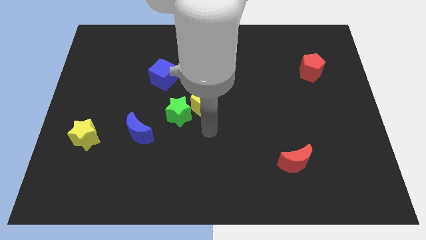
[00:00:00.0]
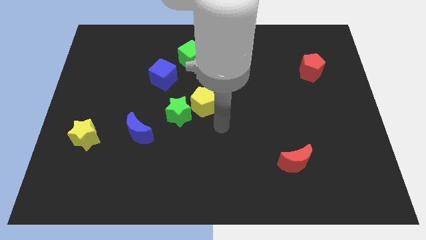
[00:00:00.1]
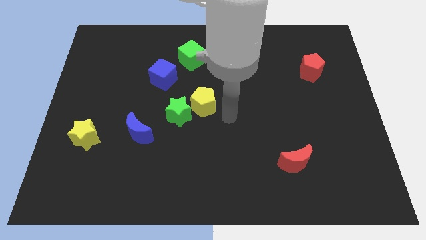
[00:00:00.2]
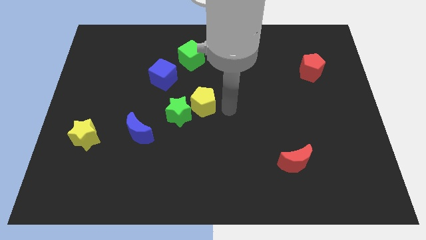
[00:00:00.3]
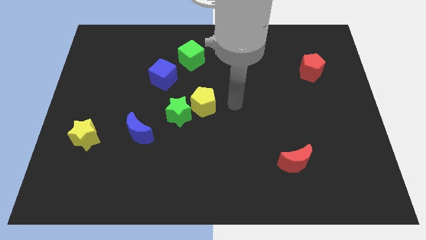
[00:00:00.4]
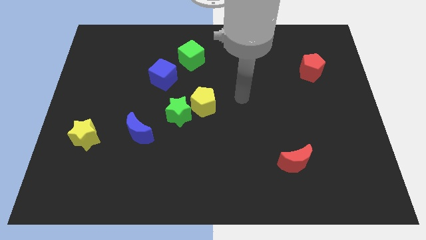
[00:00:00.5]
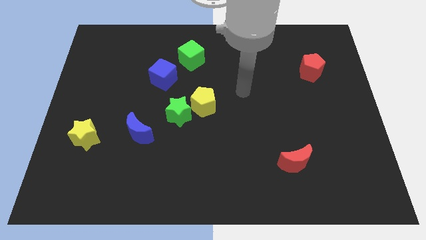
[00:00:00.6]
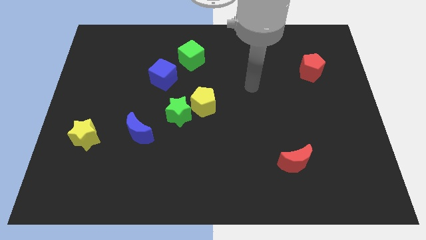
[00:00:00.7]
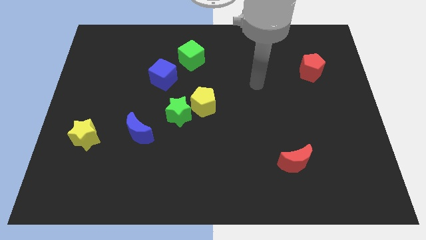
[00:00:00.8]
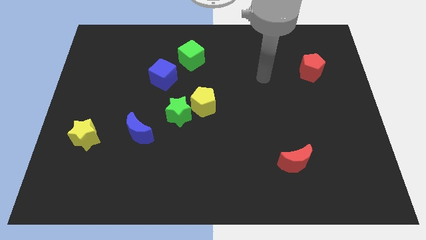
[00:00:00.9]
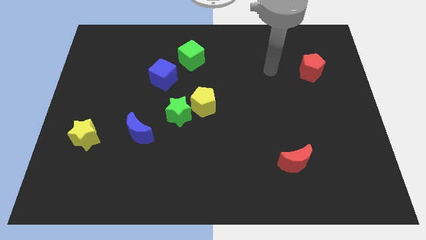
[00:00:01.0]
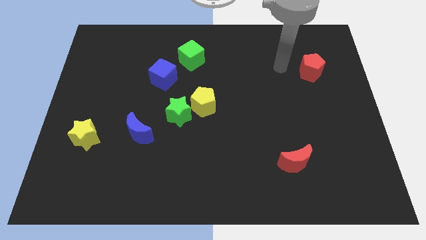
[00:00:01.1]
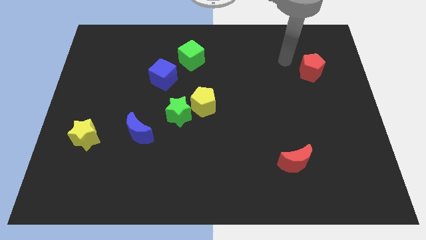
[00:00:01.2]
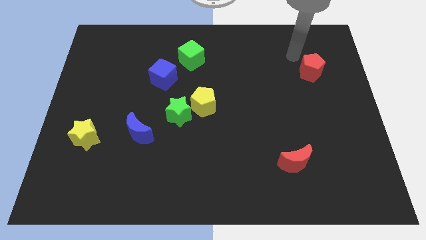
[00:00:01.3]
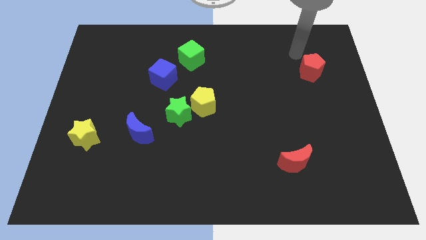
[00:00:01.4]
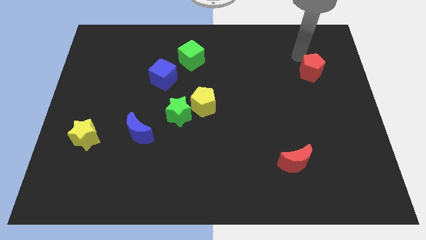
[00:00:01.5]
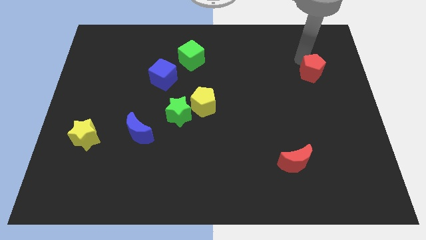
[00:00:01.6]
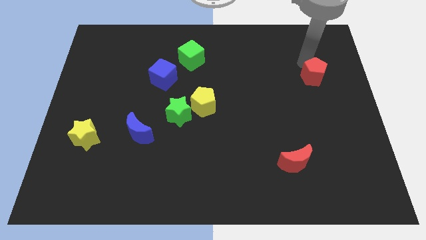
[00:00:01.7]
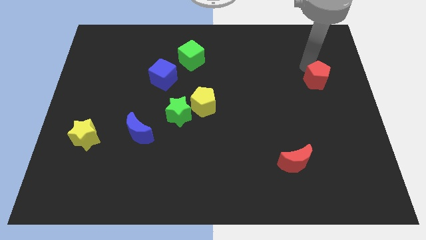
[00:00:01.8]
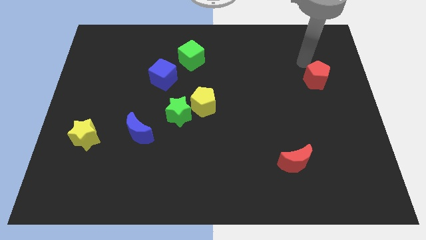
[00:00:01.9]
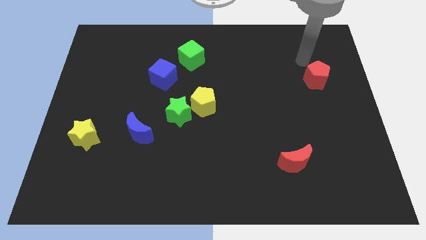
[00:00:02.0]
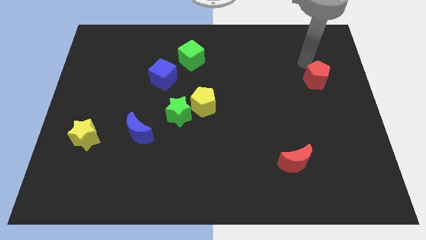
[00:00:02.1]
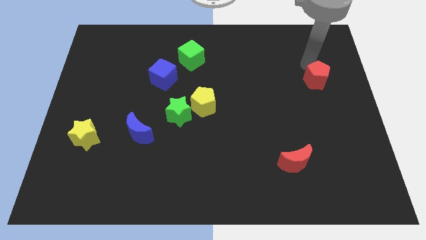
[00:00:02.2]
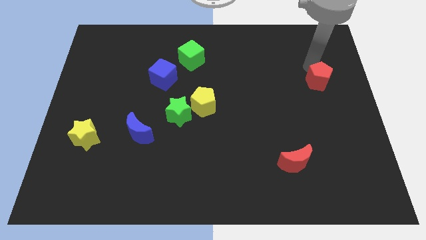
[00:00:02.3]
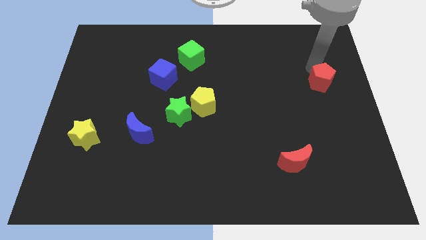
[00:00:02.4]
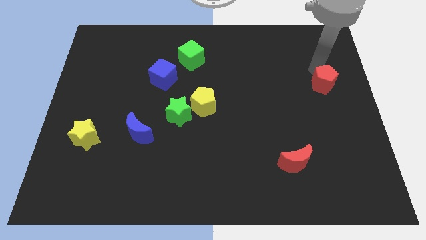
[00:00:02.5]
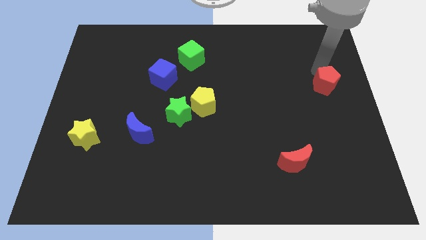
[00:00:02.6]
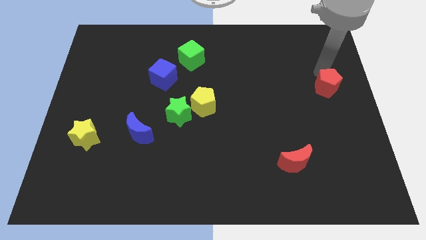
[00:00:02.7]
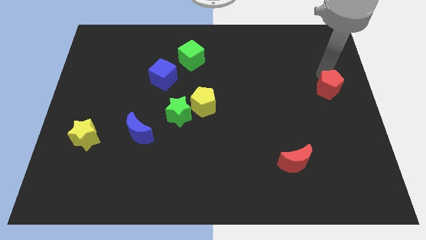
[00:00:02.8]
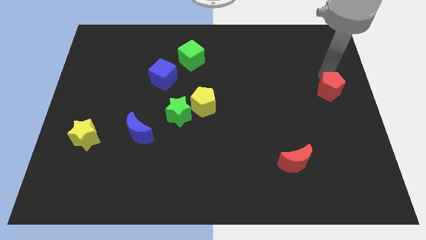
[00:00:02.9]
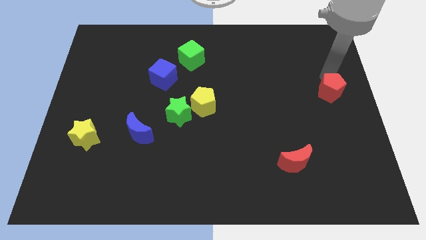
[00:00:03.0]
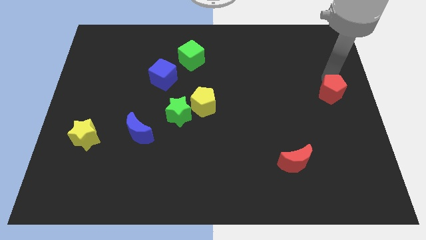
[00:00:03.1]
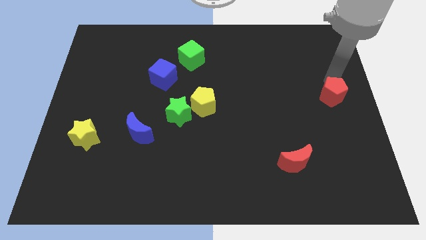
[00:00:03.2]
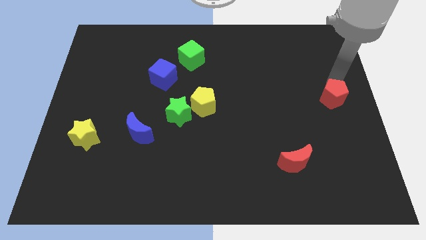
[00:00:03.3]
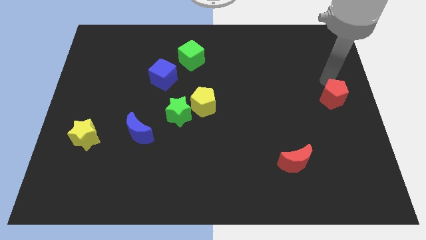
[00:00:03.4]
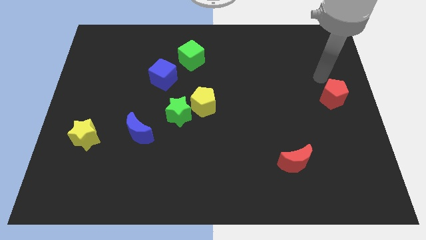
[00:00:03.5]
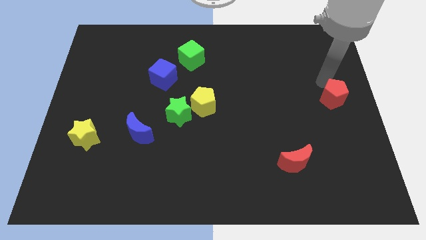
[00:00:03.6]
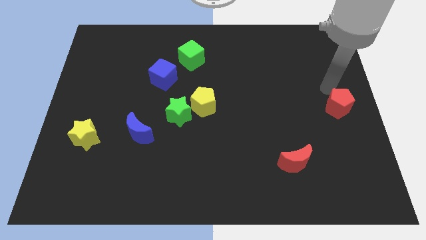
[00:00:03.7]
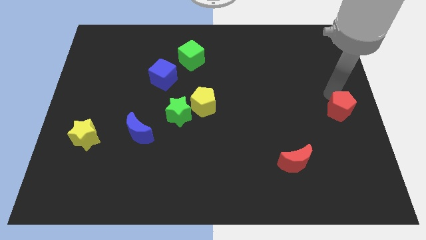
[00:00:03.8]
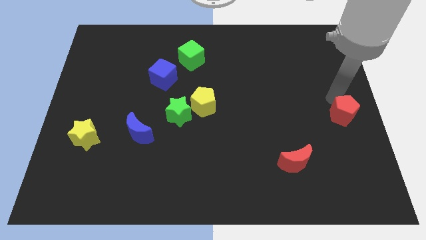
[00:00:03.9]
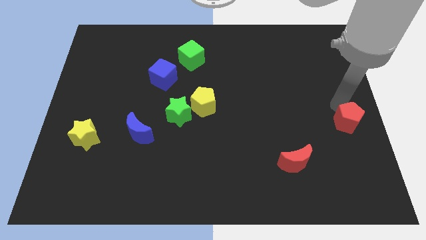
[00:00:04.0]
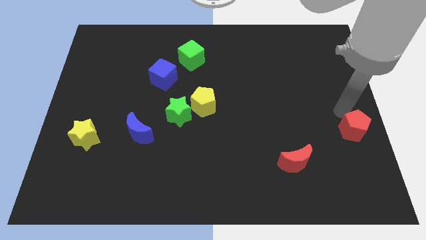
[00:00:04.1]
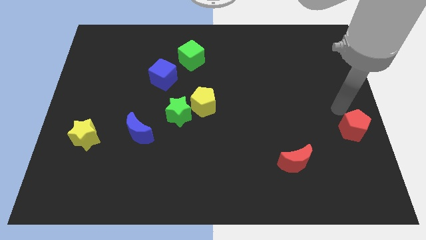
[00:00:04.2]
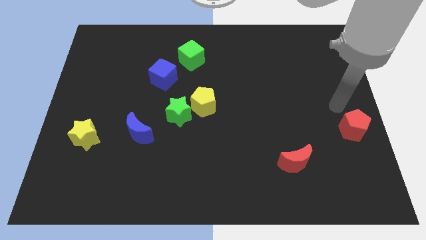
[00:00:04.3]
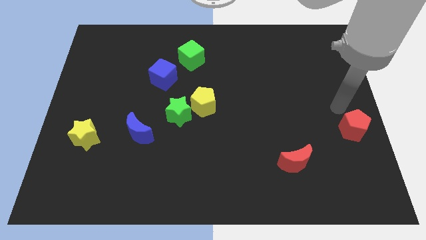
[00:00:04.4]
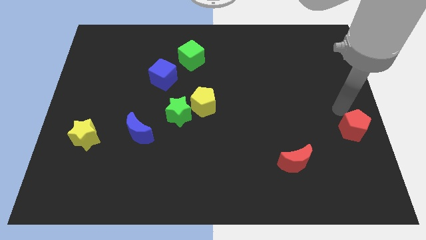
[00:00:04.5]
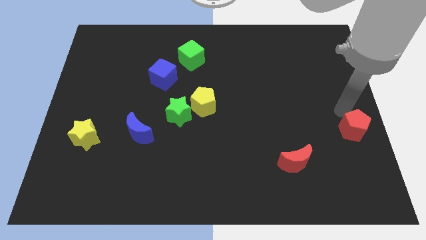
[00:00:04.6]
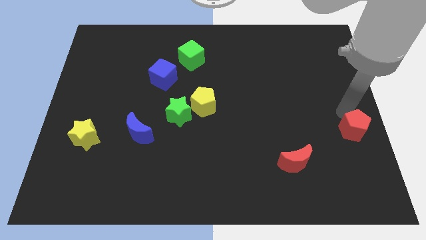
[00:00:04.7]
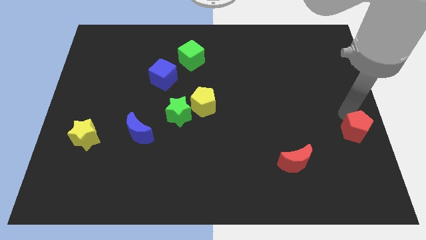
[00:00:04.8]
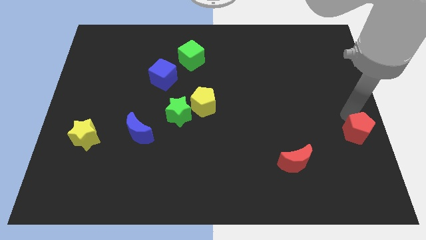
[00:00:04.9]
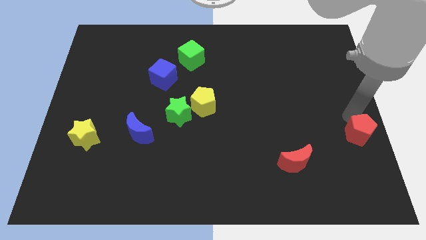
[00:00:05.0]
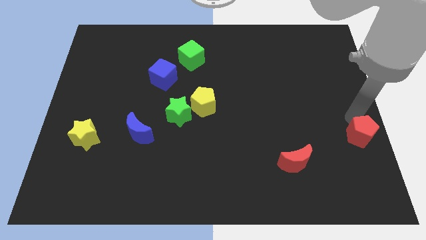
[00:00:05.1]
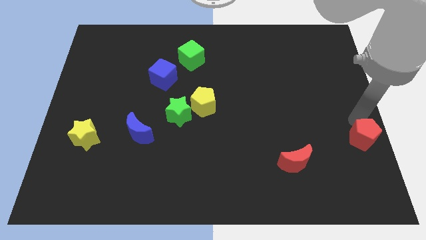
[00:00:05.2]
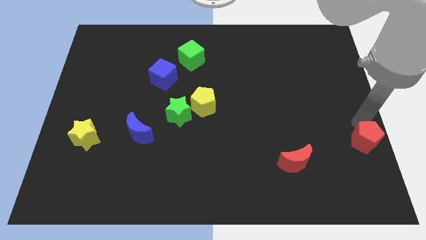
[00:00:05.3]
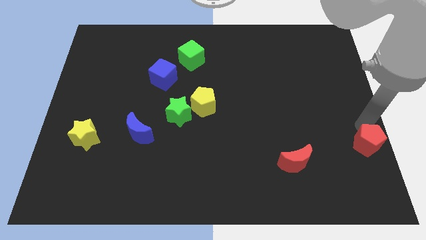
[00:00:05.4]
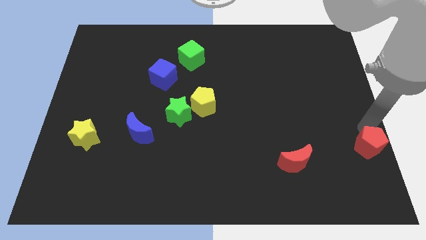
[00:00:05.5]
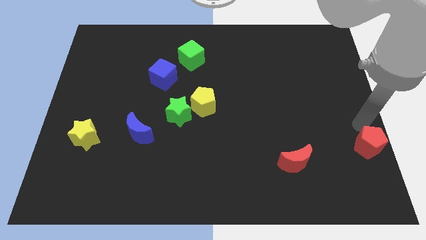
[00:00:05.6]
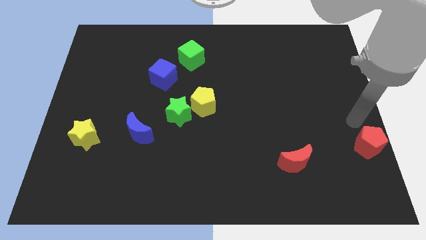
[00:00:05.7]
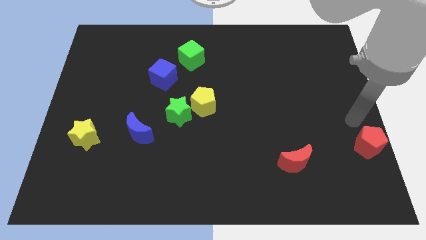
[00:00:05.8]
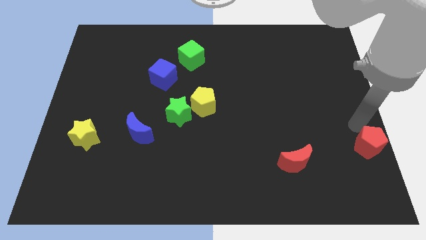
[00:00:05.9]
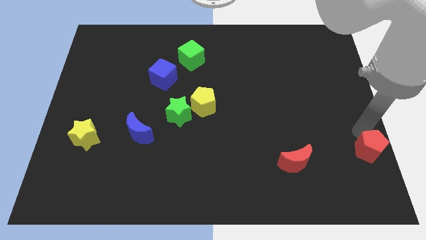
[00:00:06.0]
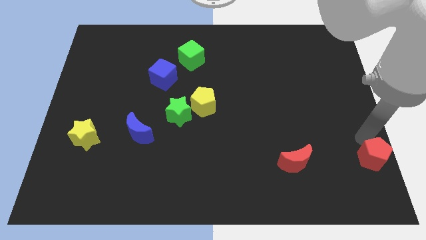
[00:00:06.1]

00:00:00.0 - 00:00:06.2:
slide the red pentagon to the bottom right corner

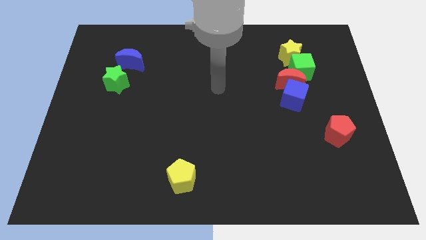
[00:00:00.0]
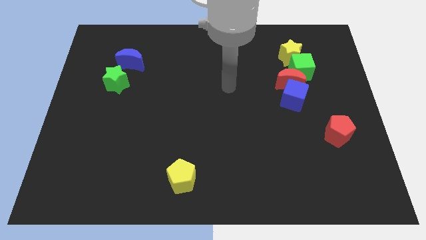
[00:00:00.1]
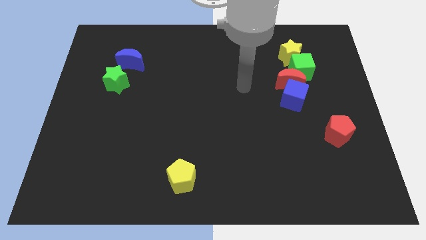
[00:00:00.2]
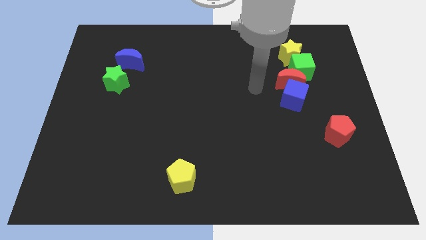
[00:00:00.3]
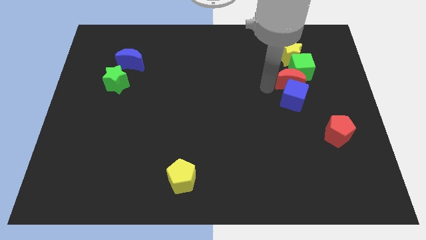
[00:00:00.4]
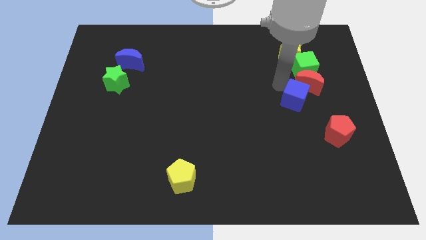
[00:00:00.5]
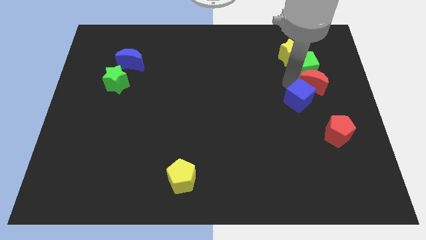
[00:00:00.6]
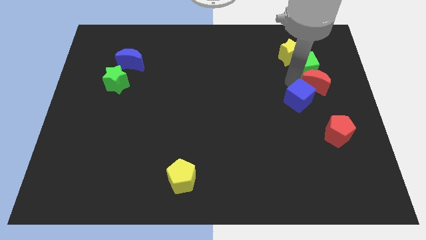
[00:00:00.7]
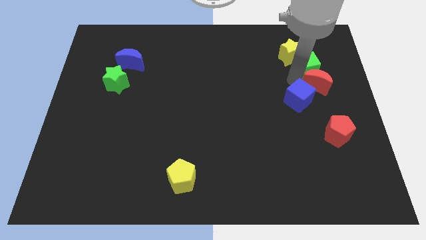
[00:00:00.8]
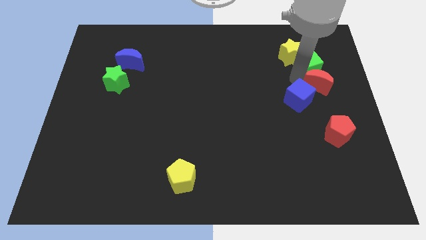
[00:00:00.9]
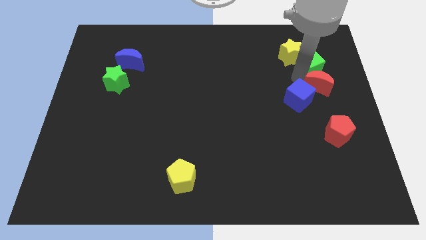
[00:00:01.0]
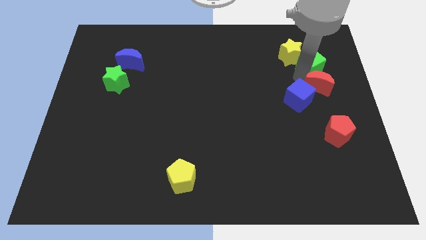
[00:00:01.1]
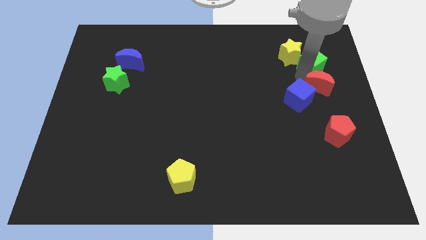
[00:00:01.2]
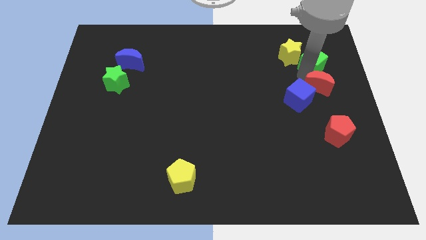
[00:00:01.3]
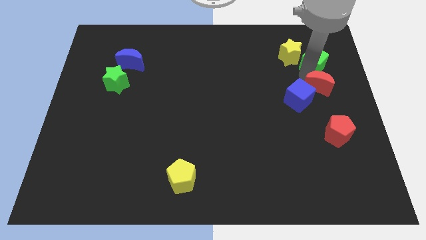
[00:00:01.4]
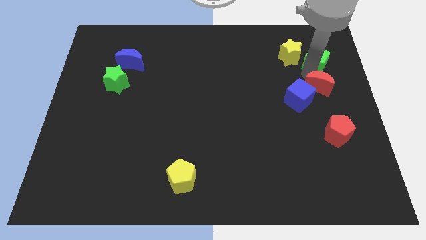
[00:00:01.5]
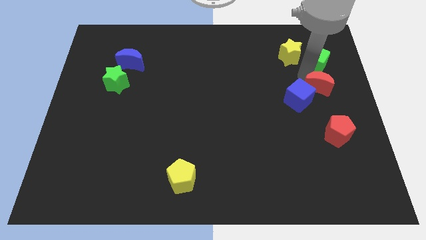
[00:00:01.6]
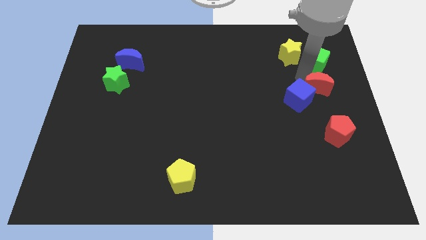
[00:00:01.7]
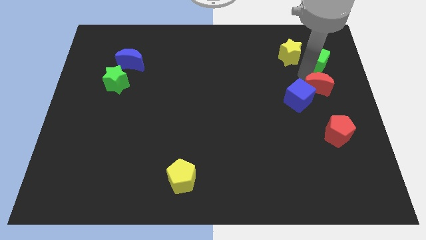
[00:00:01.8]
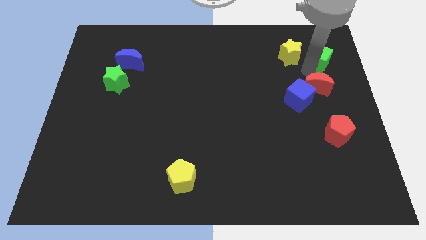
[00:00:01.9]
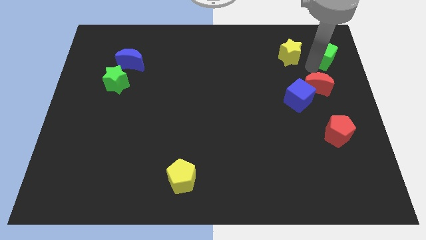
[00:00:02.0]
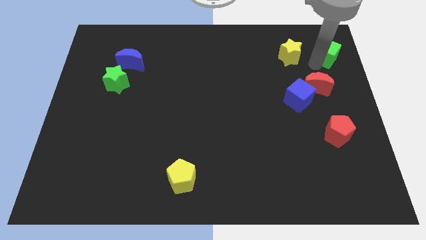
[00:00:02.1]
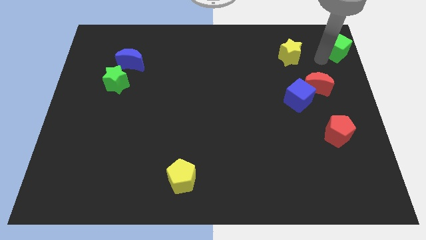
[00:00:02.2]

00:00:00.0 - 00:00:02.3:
push the green cube to the top right of the board
